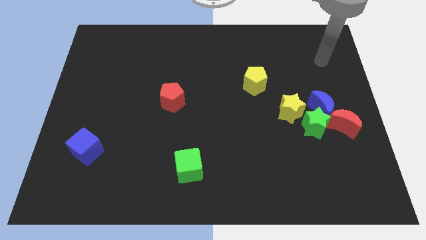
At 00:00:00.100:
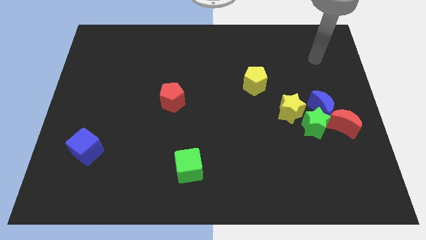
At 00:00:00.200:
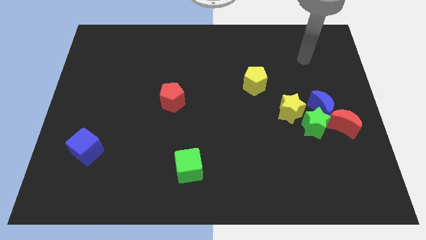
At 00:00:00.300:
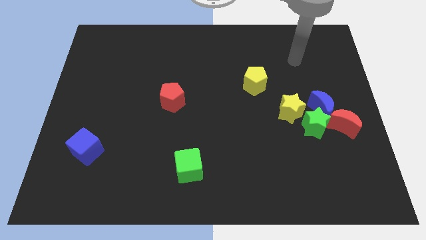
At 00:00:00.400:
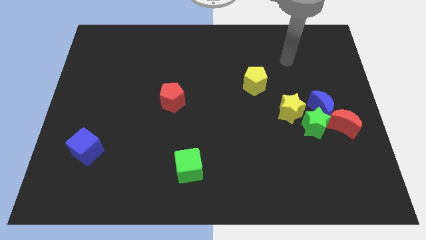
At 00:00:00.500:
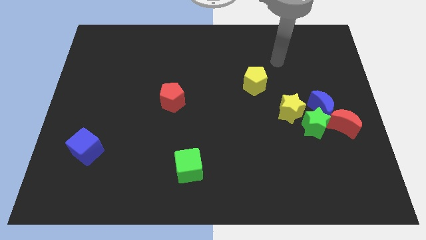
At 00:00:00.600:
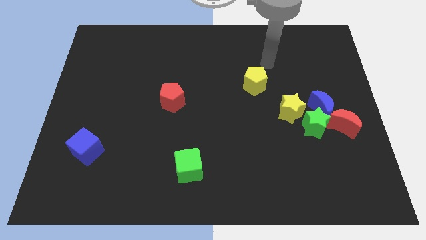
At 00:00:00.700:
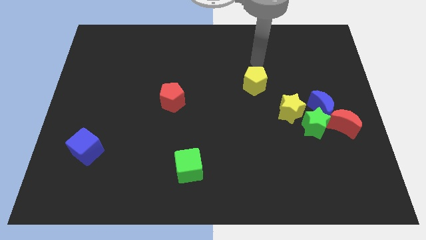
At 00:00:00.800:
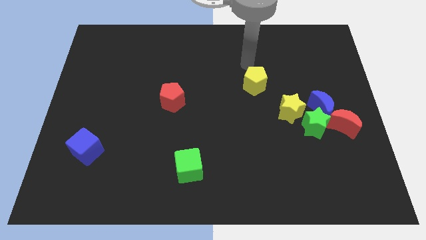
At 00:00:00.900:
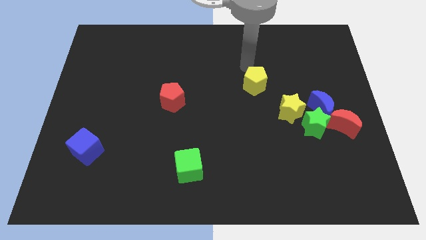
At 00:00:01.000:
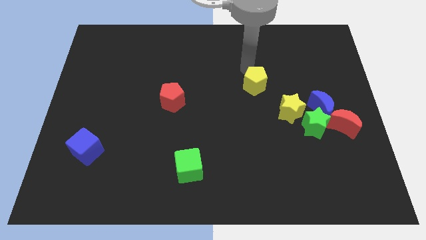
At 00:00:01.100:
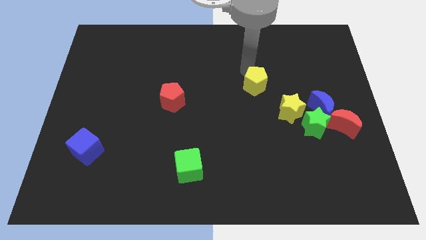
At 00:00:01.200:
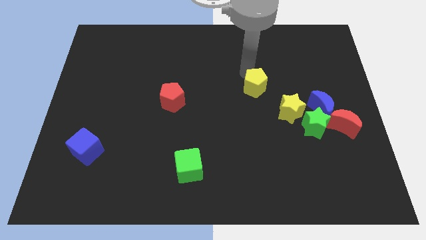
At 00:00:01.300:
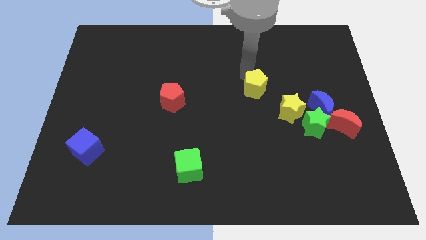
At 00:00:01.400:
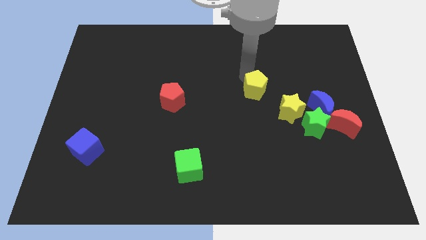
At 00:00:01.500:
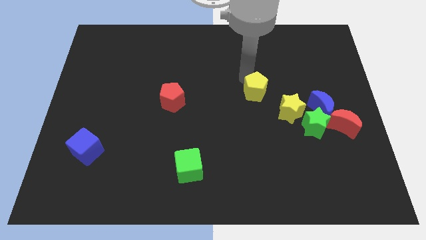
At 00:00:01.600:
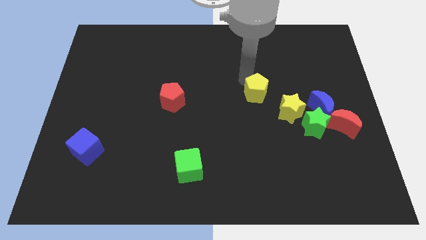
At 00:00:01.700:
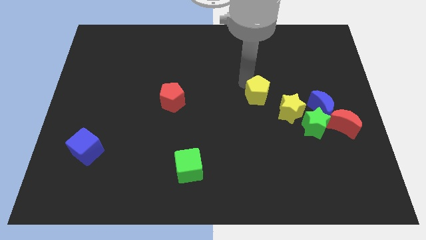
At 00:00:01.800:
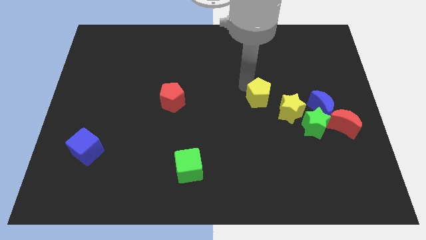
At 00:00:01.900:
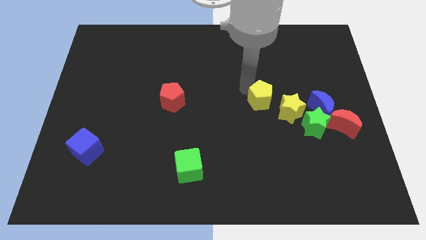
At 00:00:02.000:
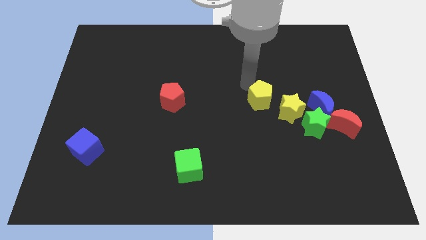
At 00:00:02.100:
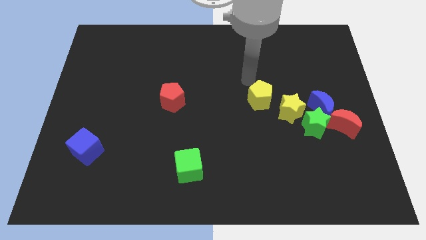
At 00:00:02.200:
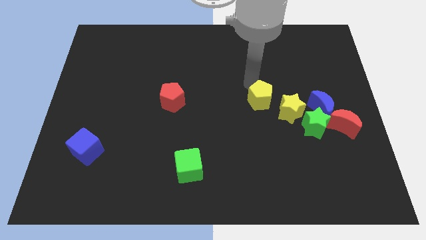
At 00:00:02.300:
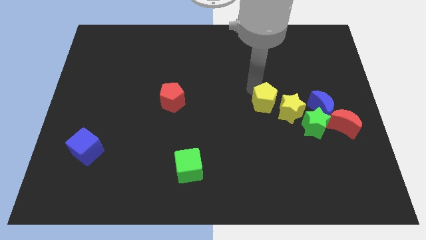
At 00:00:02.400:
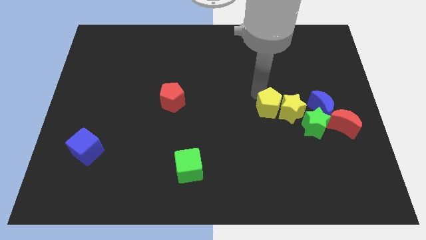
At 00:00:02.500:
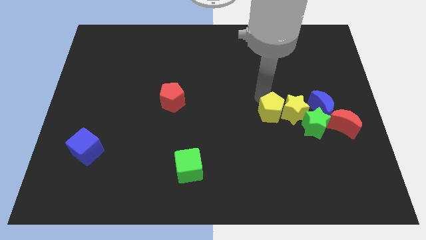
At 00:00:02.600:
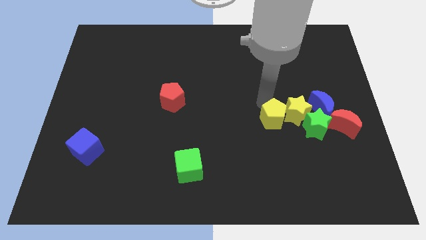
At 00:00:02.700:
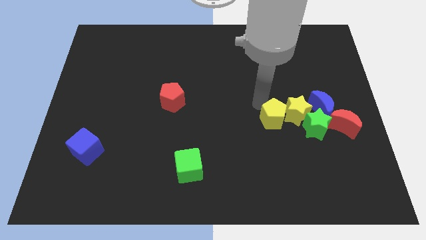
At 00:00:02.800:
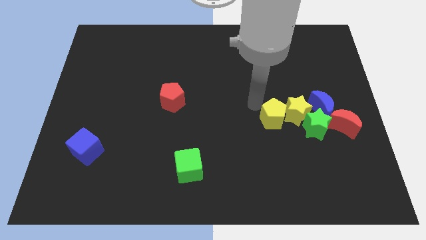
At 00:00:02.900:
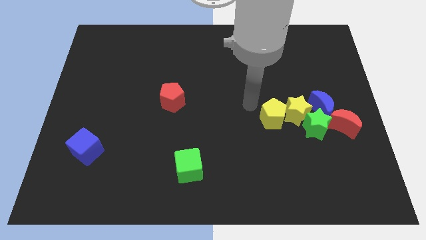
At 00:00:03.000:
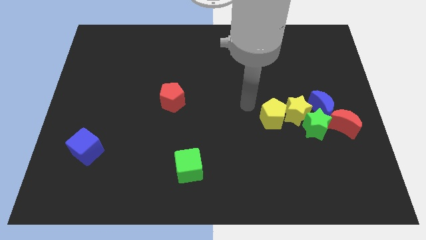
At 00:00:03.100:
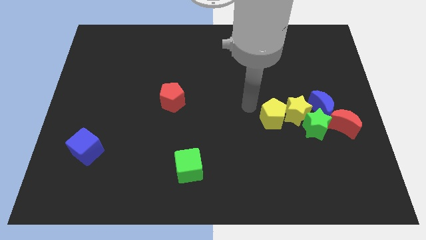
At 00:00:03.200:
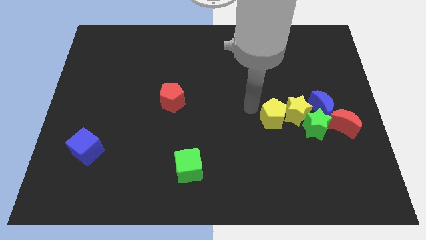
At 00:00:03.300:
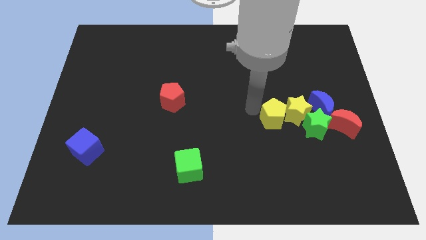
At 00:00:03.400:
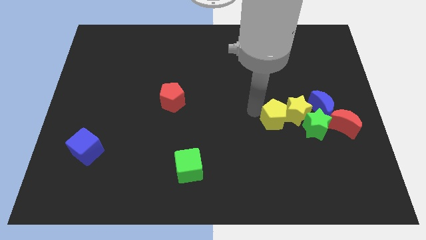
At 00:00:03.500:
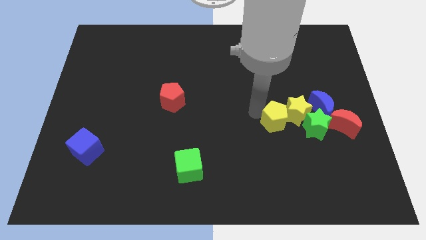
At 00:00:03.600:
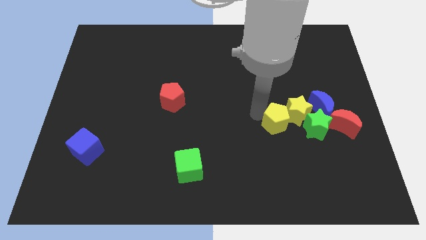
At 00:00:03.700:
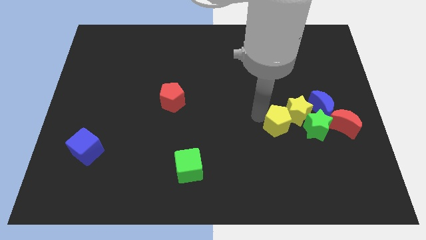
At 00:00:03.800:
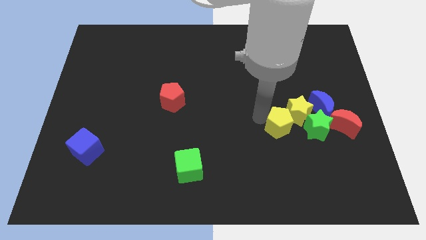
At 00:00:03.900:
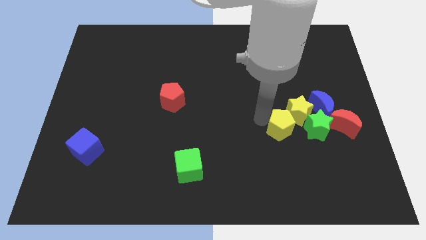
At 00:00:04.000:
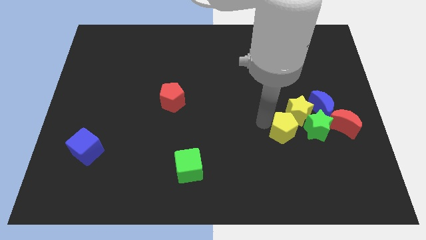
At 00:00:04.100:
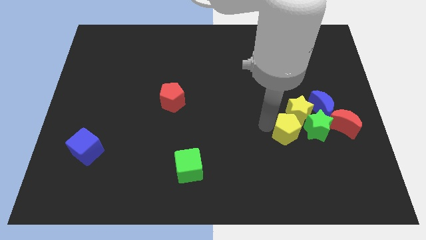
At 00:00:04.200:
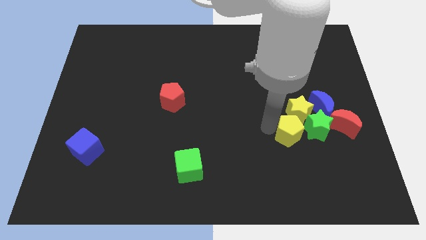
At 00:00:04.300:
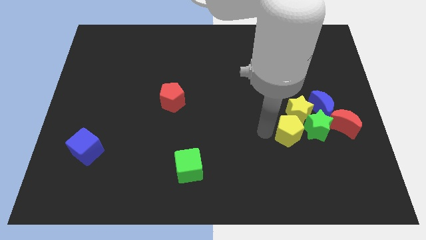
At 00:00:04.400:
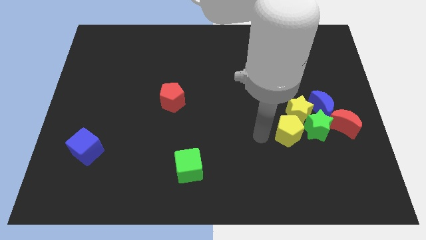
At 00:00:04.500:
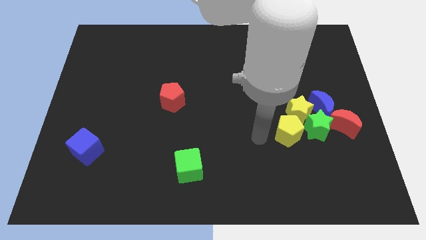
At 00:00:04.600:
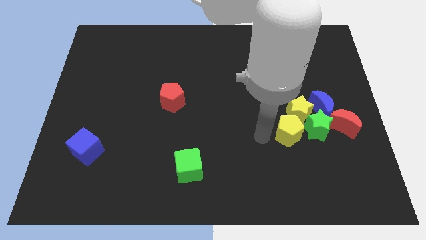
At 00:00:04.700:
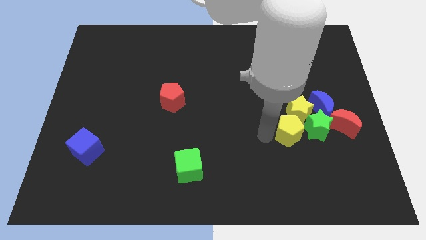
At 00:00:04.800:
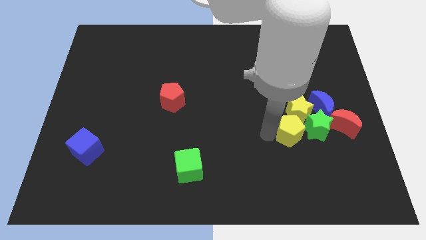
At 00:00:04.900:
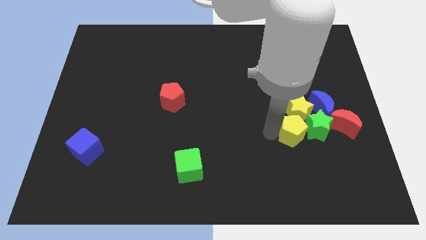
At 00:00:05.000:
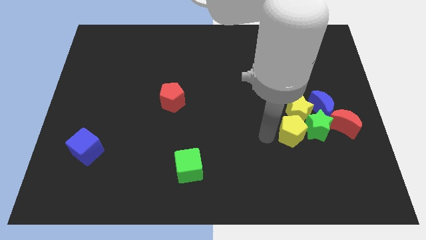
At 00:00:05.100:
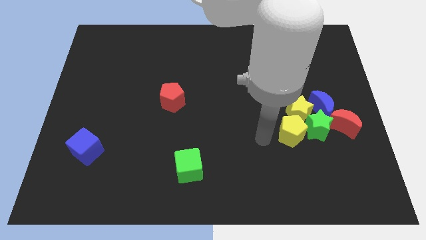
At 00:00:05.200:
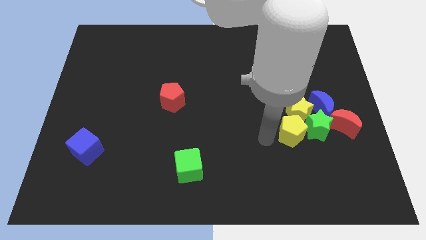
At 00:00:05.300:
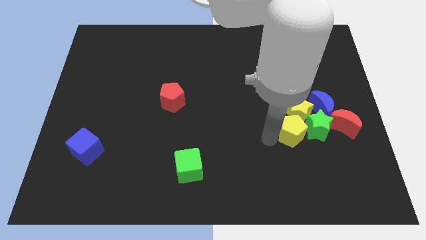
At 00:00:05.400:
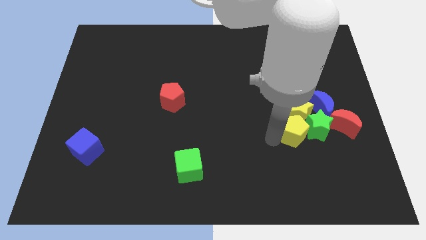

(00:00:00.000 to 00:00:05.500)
push the yellow pentagon close to the green star

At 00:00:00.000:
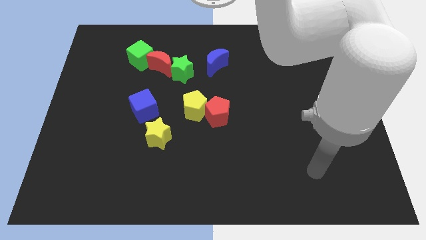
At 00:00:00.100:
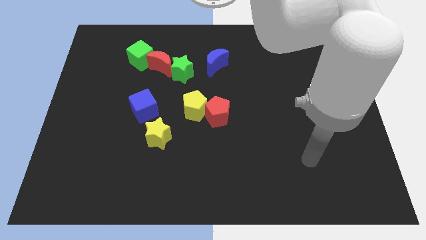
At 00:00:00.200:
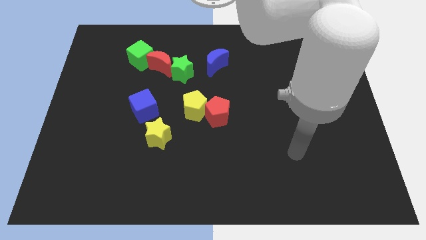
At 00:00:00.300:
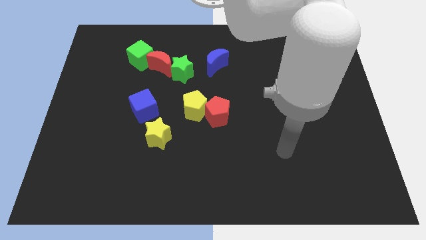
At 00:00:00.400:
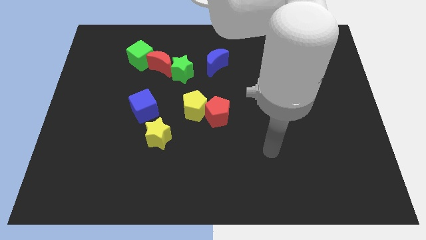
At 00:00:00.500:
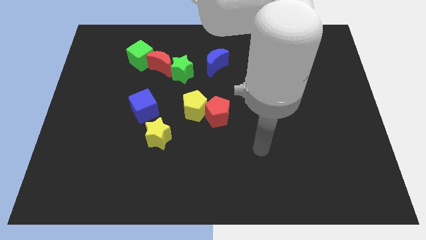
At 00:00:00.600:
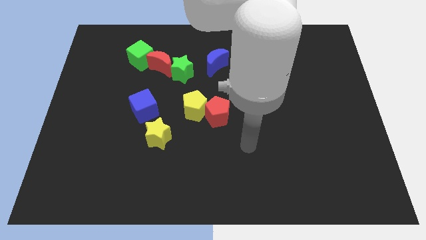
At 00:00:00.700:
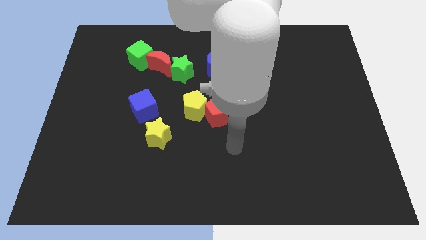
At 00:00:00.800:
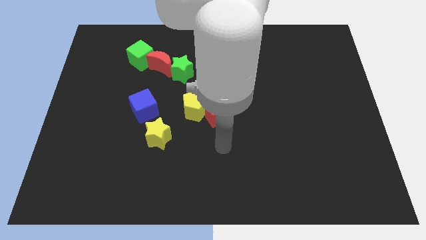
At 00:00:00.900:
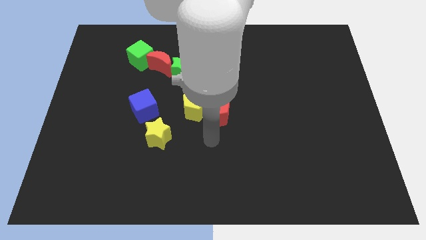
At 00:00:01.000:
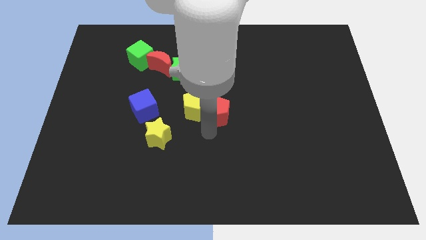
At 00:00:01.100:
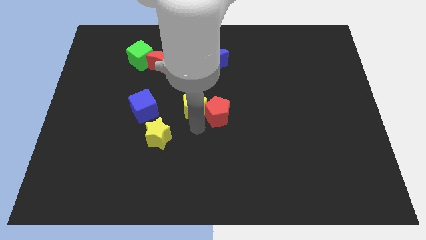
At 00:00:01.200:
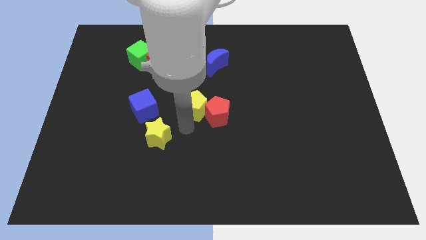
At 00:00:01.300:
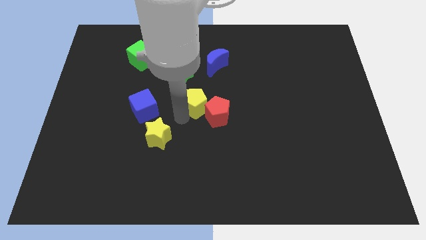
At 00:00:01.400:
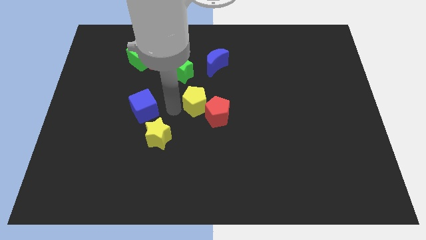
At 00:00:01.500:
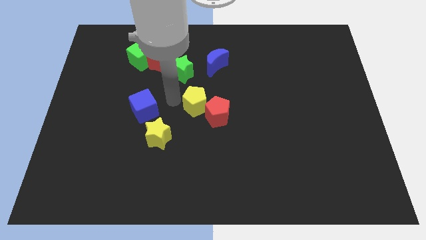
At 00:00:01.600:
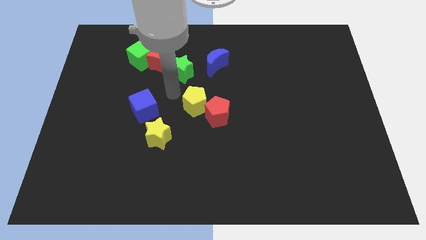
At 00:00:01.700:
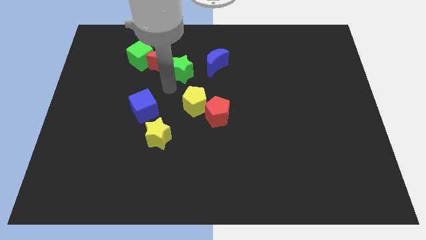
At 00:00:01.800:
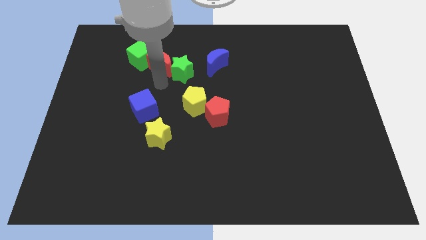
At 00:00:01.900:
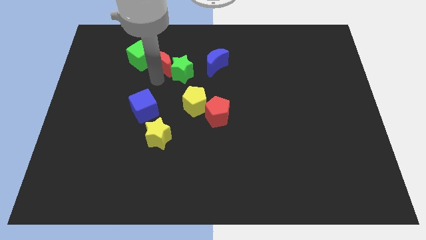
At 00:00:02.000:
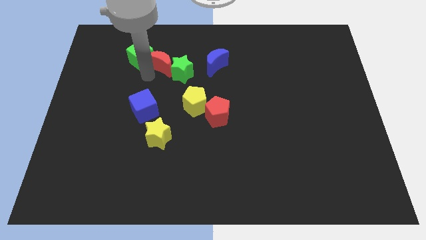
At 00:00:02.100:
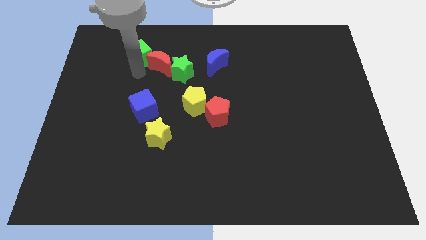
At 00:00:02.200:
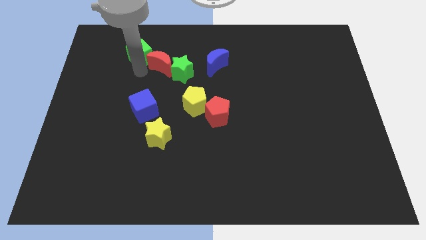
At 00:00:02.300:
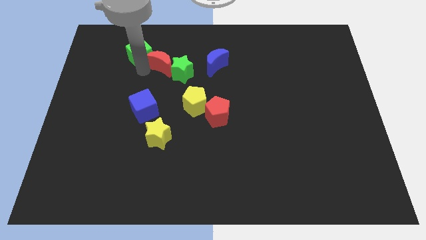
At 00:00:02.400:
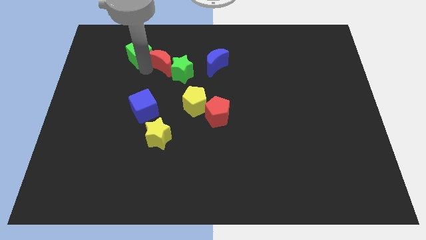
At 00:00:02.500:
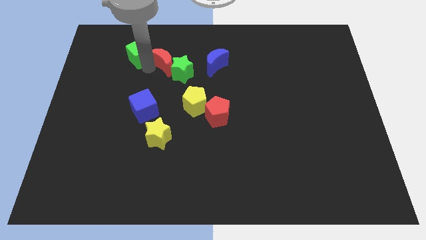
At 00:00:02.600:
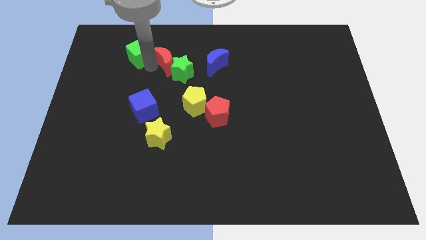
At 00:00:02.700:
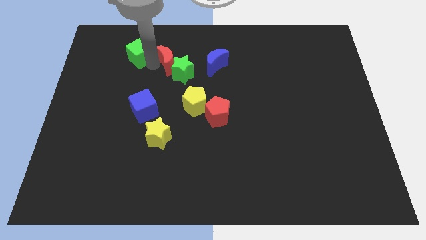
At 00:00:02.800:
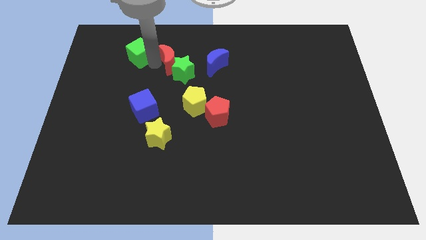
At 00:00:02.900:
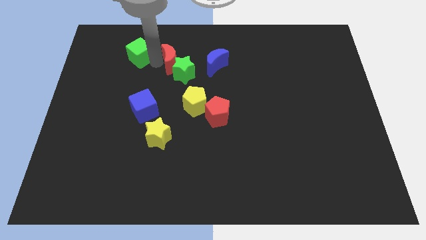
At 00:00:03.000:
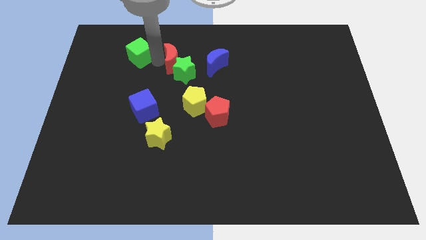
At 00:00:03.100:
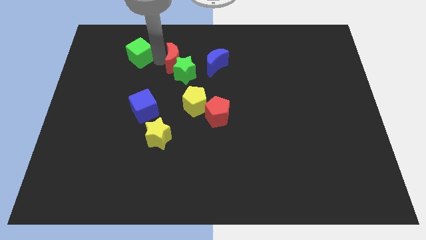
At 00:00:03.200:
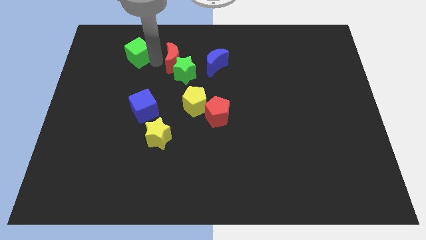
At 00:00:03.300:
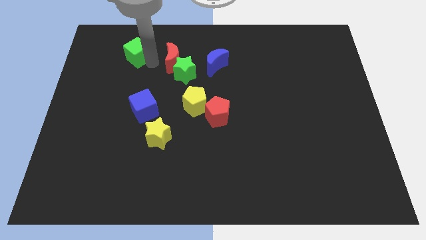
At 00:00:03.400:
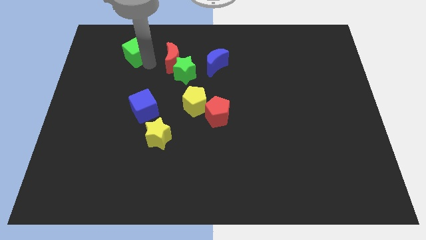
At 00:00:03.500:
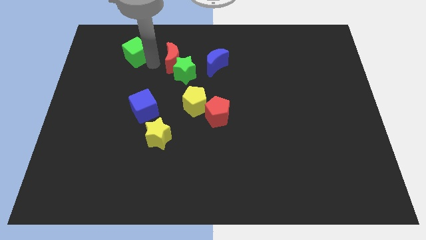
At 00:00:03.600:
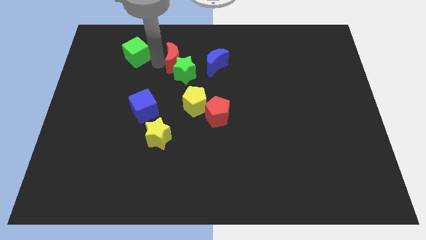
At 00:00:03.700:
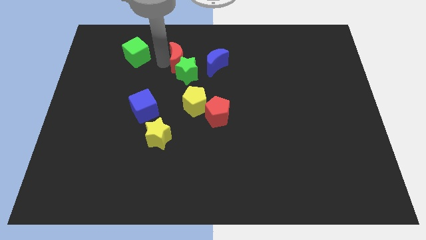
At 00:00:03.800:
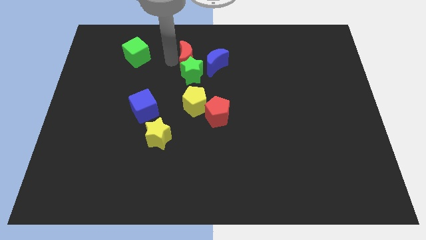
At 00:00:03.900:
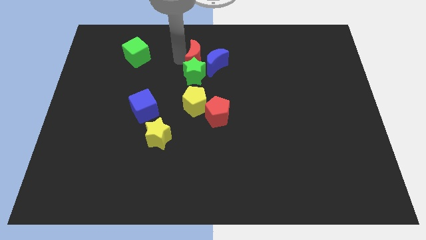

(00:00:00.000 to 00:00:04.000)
slide the red moon next to the blue moon
